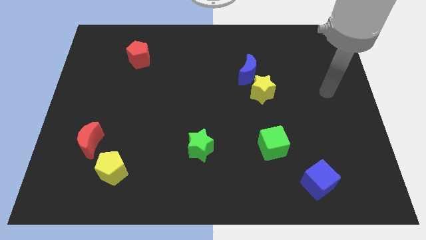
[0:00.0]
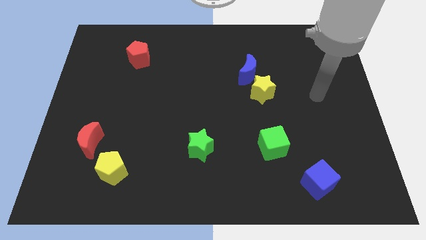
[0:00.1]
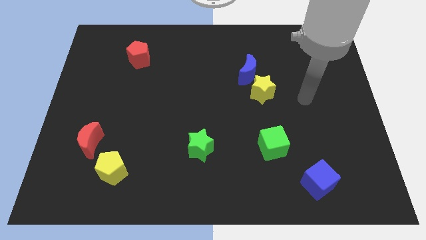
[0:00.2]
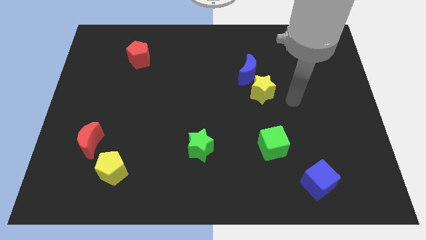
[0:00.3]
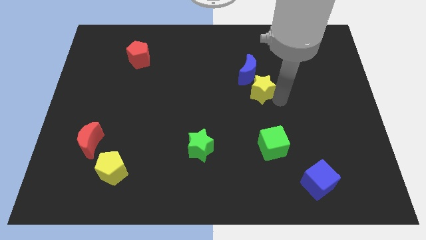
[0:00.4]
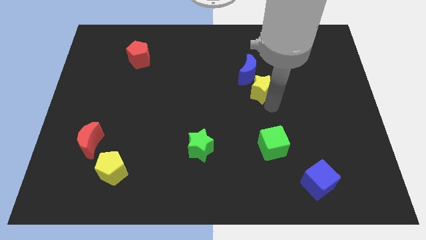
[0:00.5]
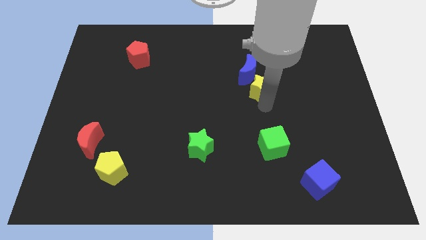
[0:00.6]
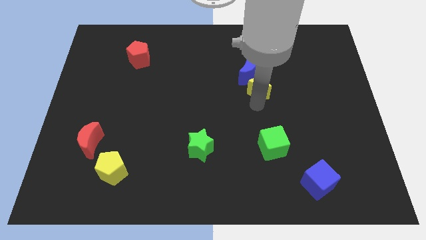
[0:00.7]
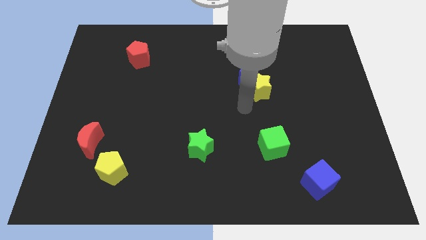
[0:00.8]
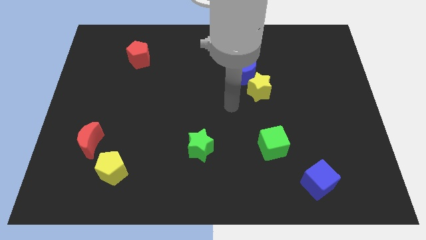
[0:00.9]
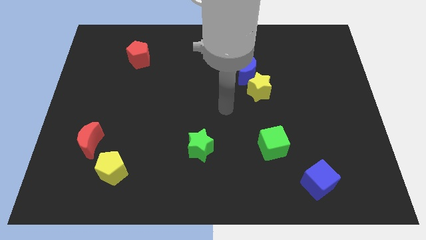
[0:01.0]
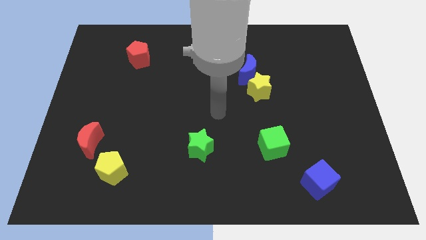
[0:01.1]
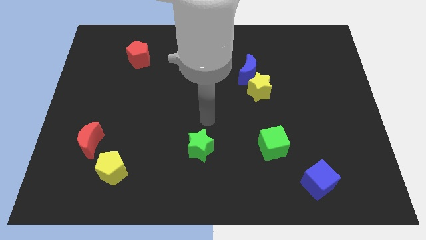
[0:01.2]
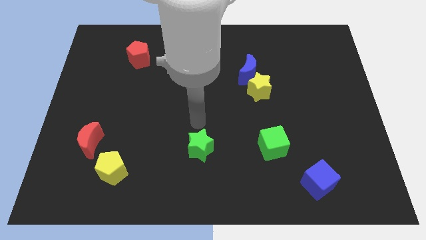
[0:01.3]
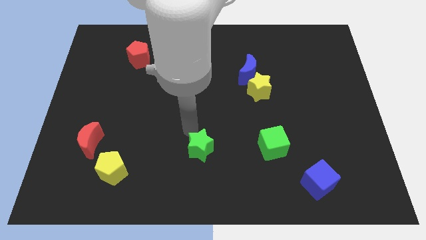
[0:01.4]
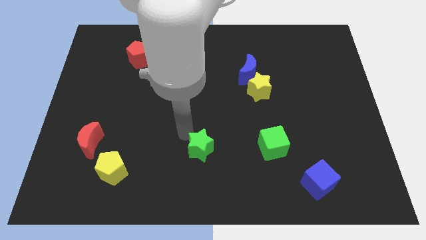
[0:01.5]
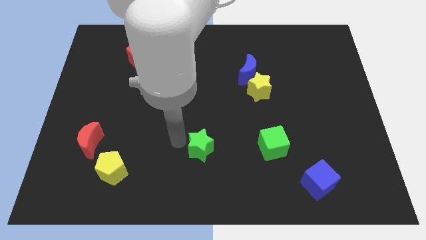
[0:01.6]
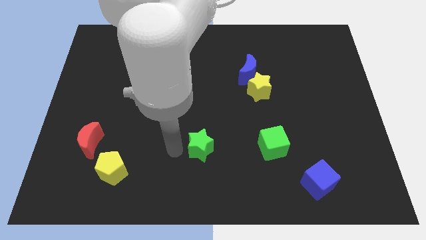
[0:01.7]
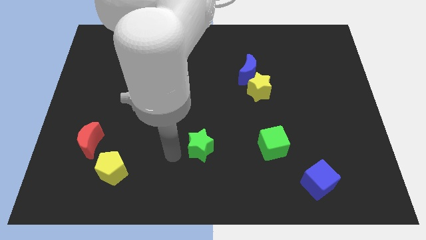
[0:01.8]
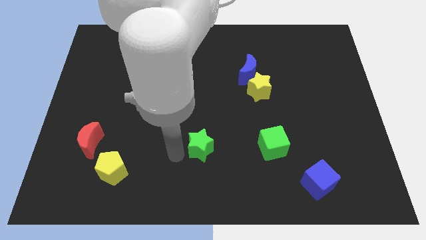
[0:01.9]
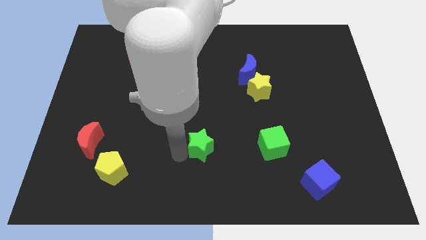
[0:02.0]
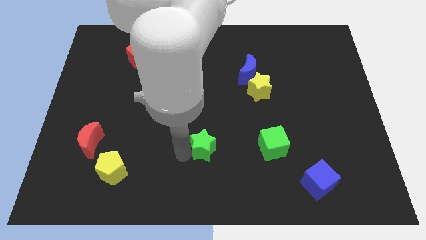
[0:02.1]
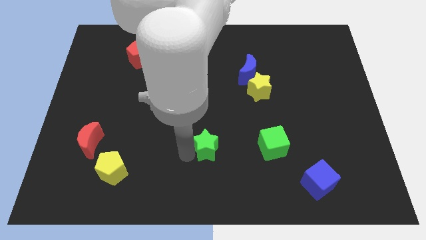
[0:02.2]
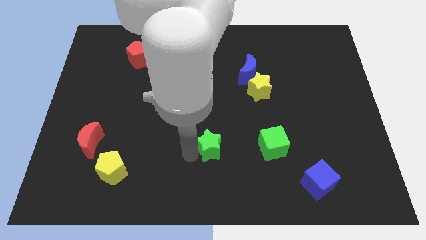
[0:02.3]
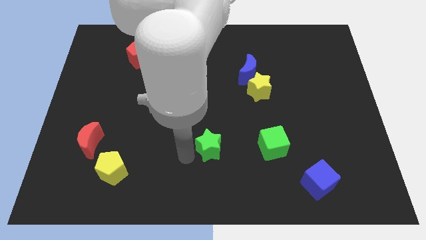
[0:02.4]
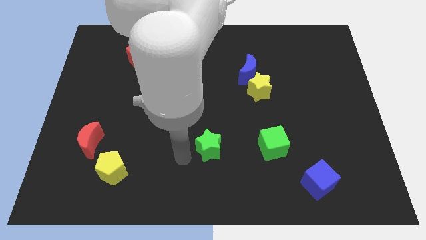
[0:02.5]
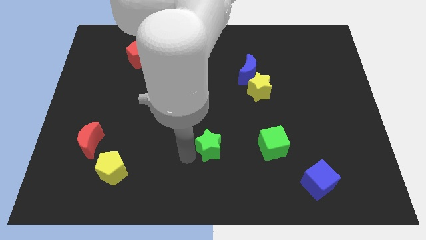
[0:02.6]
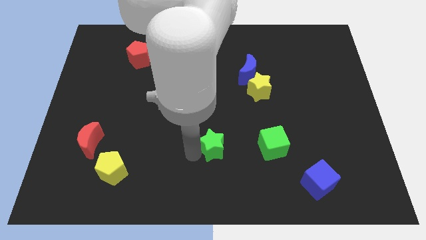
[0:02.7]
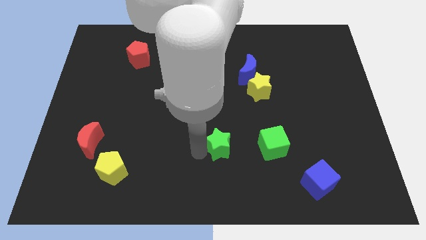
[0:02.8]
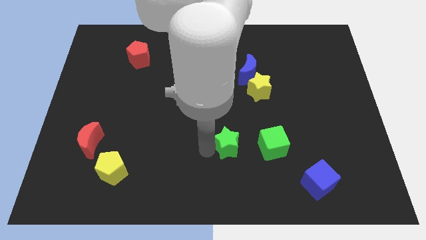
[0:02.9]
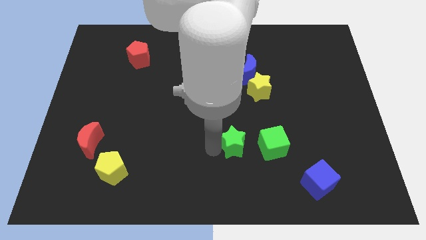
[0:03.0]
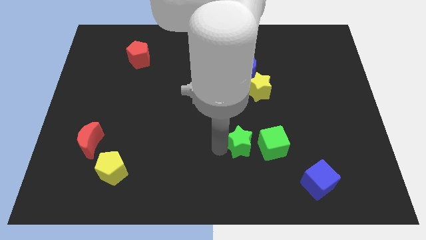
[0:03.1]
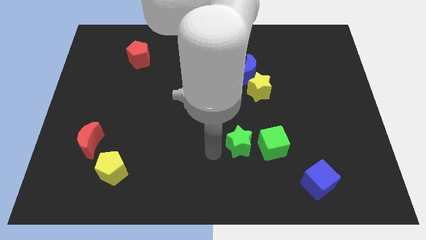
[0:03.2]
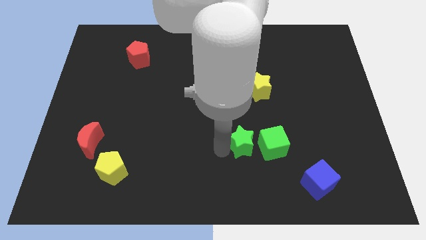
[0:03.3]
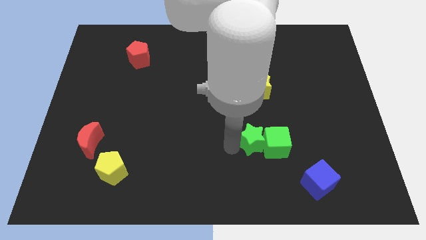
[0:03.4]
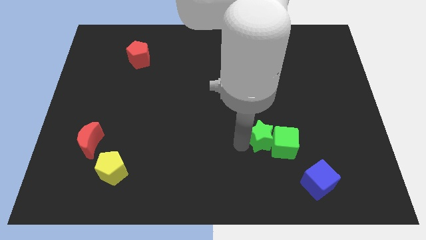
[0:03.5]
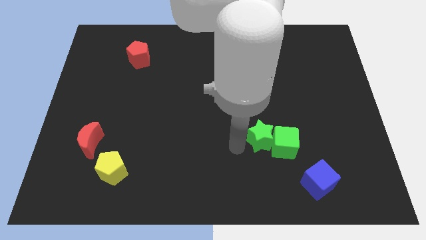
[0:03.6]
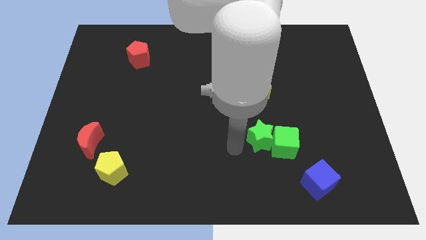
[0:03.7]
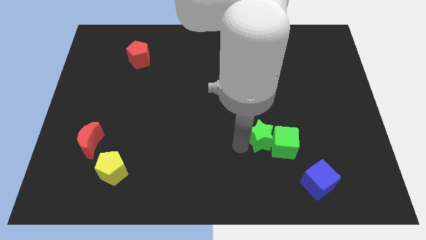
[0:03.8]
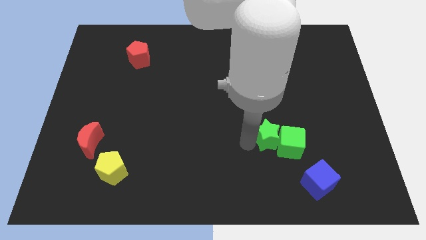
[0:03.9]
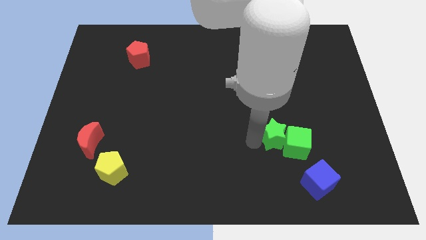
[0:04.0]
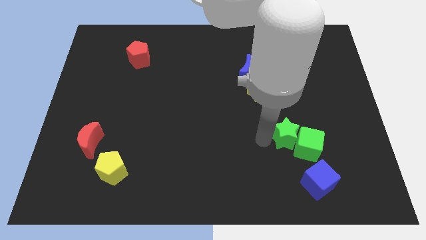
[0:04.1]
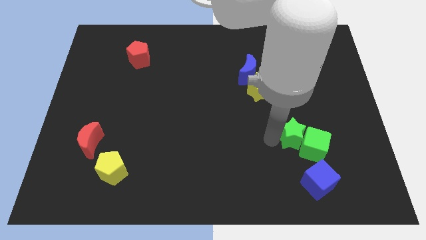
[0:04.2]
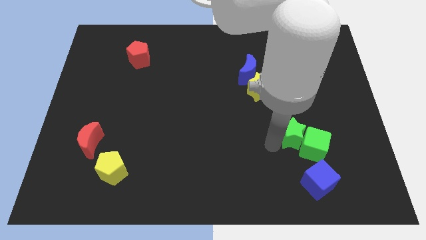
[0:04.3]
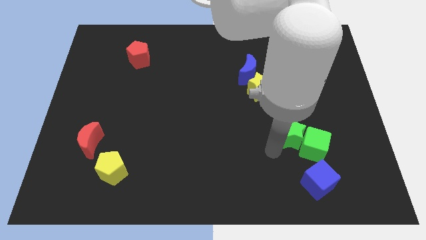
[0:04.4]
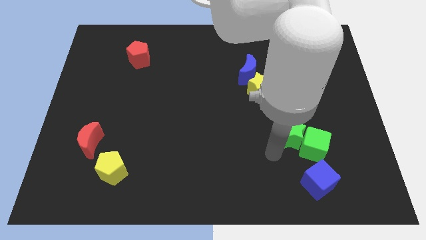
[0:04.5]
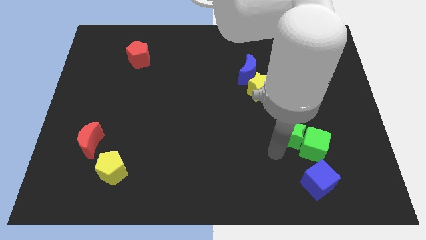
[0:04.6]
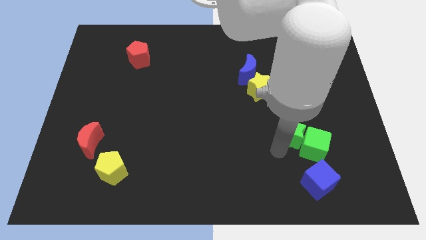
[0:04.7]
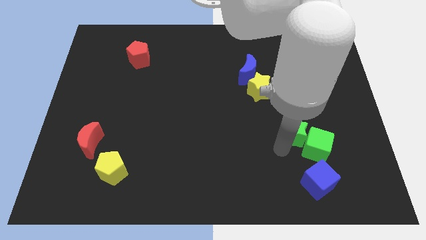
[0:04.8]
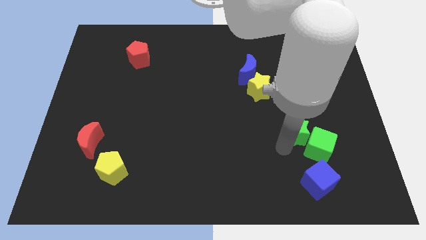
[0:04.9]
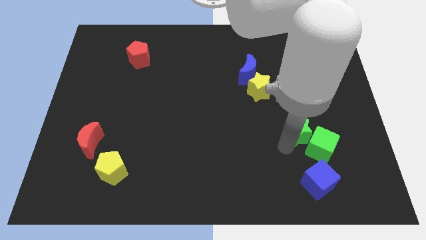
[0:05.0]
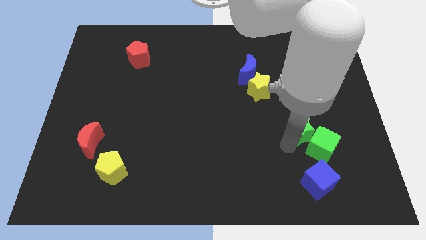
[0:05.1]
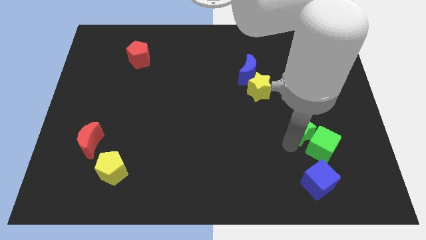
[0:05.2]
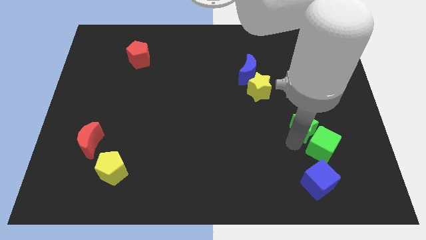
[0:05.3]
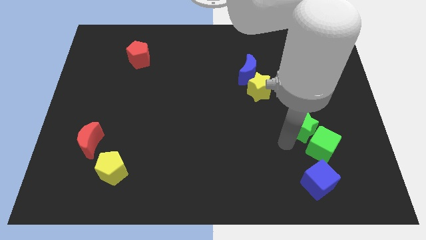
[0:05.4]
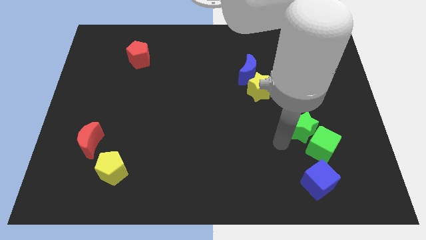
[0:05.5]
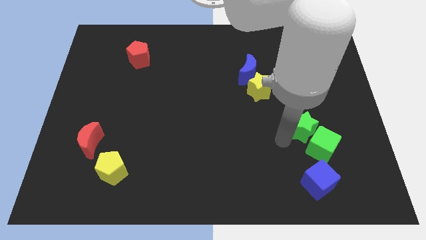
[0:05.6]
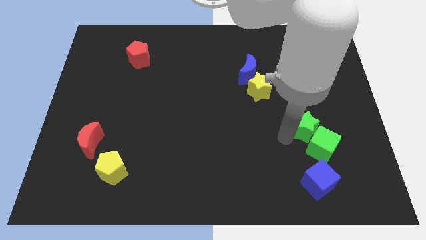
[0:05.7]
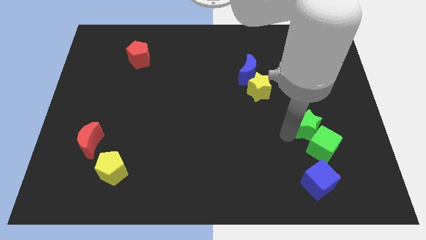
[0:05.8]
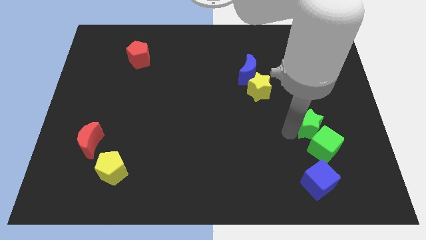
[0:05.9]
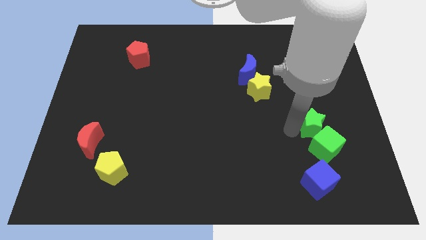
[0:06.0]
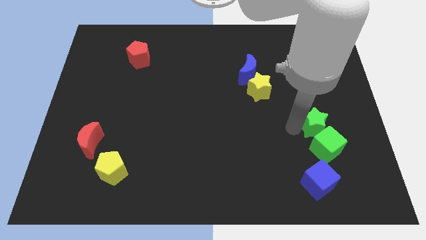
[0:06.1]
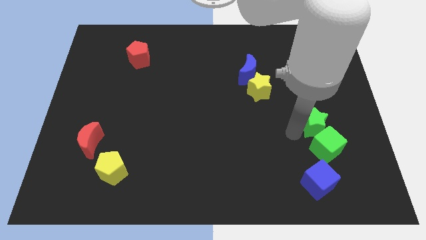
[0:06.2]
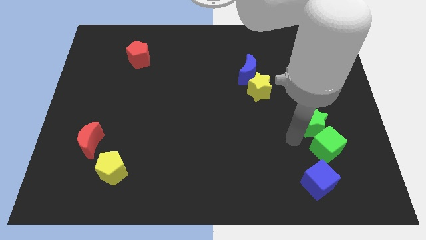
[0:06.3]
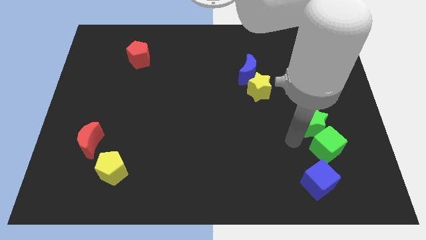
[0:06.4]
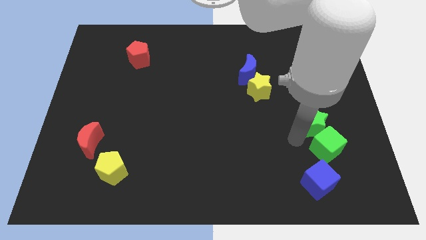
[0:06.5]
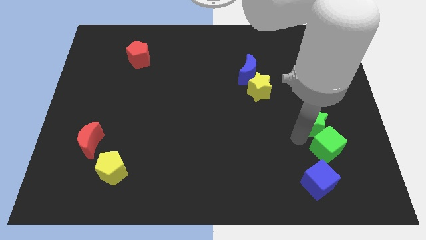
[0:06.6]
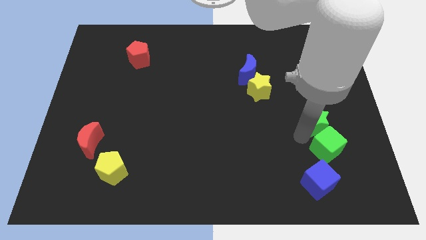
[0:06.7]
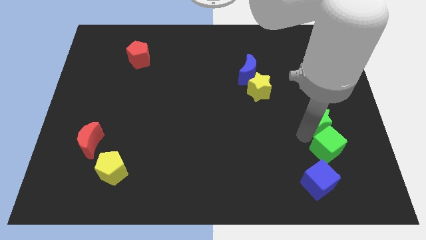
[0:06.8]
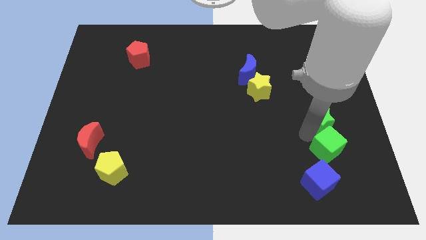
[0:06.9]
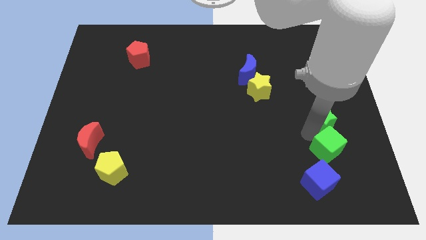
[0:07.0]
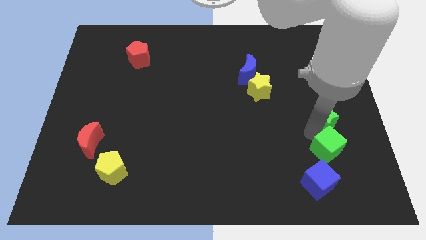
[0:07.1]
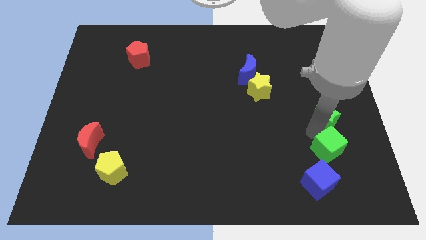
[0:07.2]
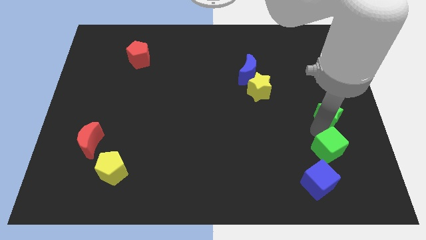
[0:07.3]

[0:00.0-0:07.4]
move the green star to the right side of the board
